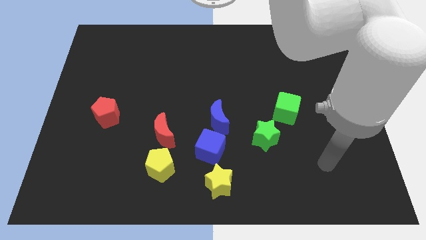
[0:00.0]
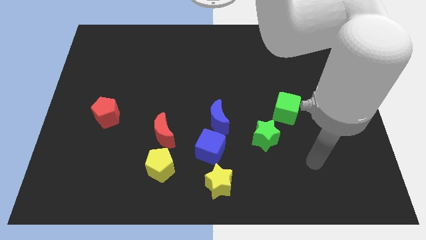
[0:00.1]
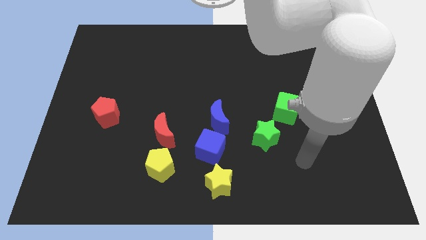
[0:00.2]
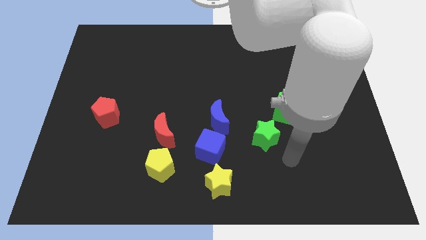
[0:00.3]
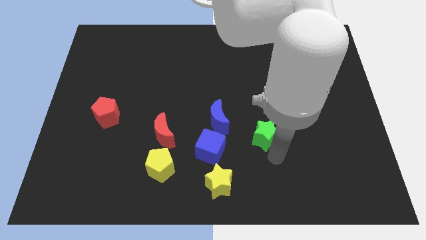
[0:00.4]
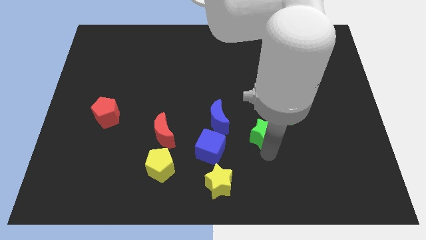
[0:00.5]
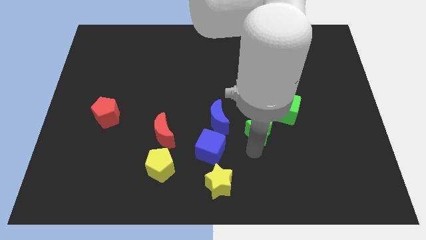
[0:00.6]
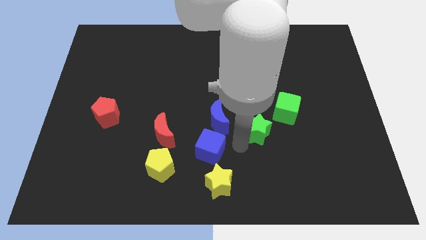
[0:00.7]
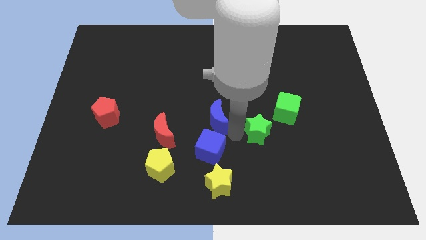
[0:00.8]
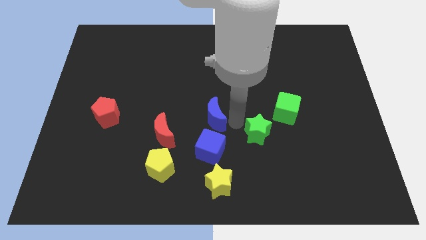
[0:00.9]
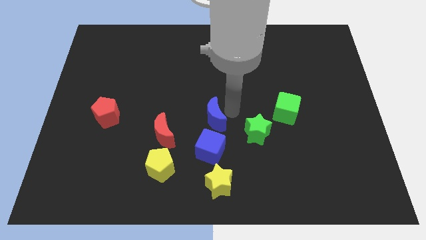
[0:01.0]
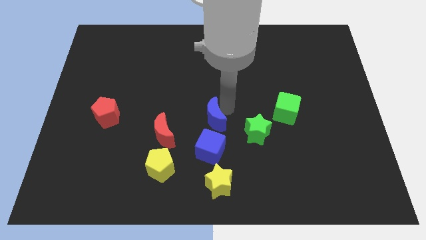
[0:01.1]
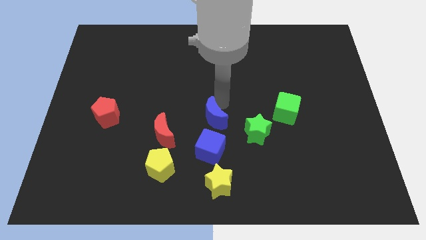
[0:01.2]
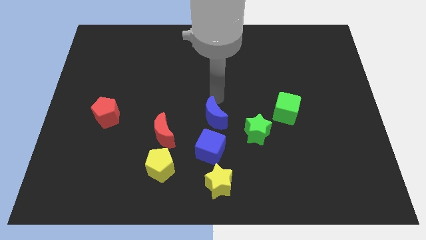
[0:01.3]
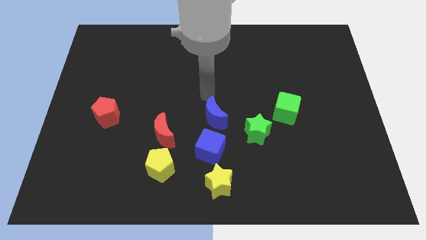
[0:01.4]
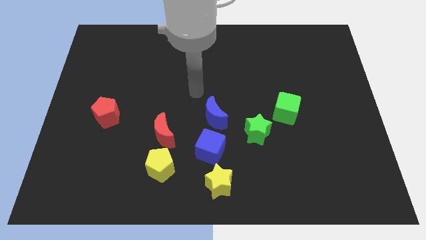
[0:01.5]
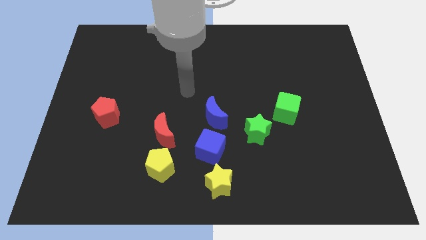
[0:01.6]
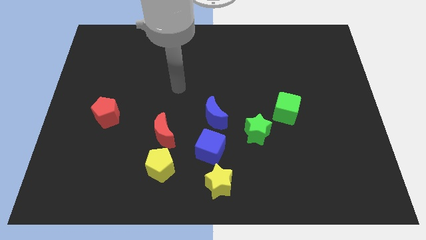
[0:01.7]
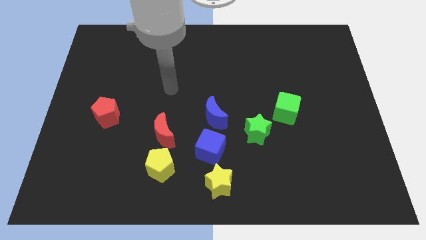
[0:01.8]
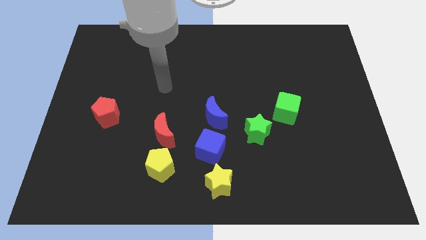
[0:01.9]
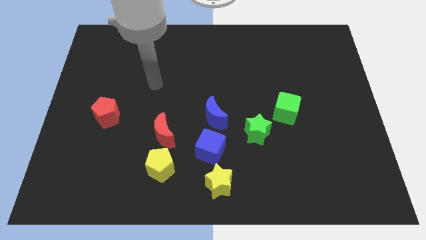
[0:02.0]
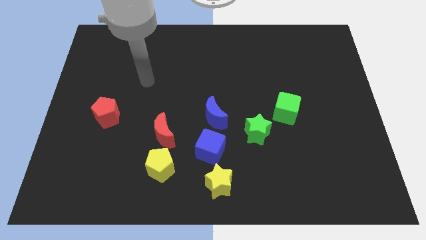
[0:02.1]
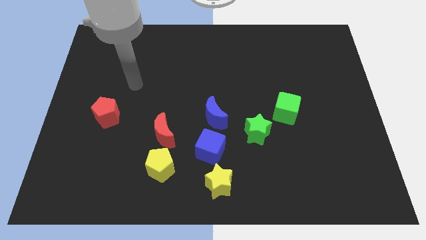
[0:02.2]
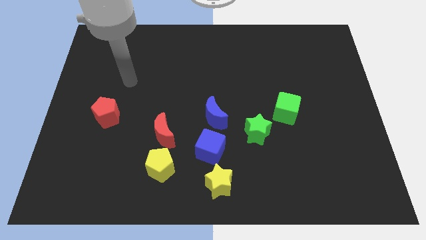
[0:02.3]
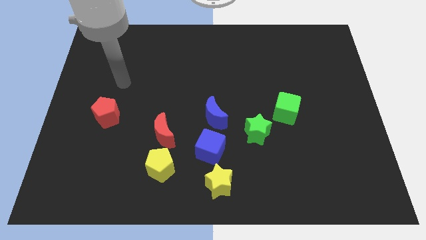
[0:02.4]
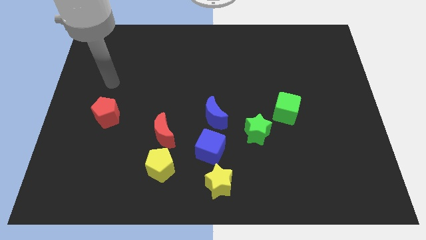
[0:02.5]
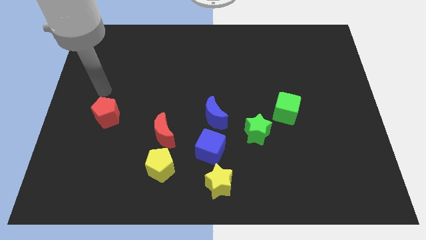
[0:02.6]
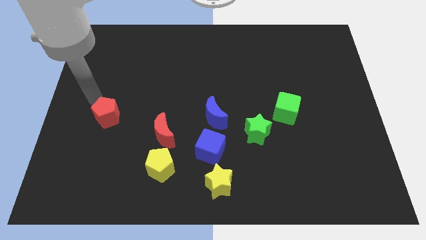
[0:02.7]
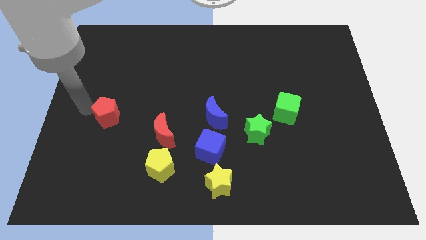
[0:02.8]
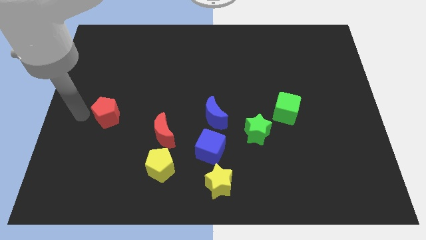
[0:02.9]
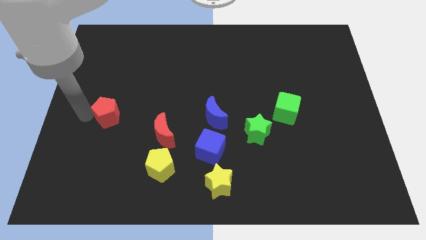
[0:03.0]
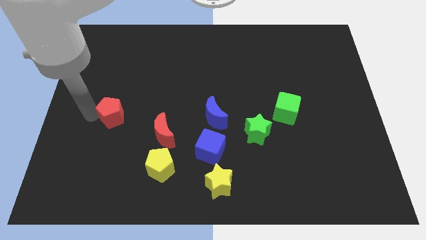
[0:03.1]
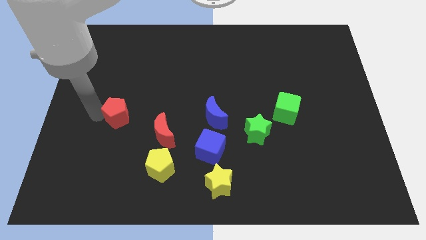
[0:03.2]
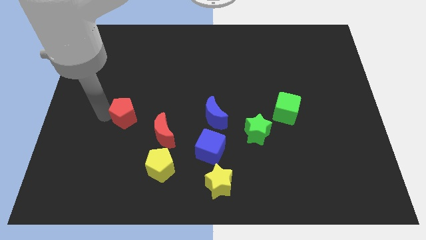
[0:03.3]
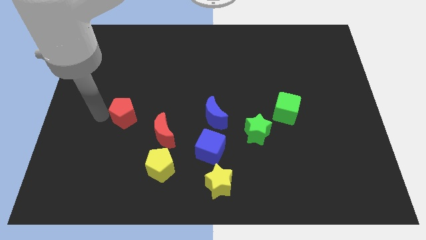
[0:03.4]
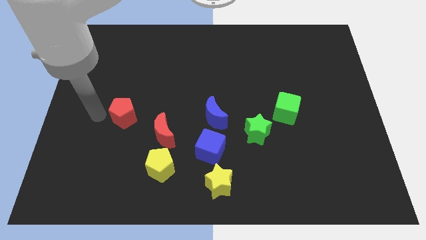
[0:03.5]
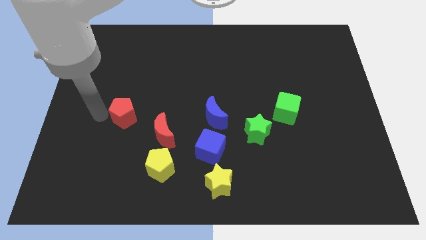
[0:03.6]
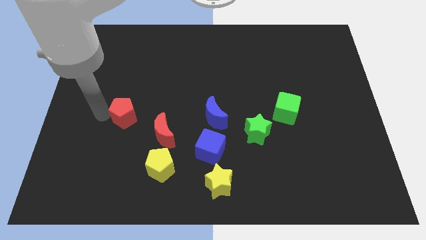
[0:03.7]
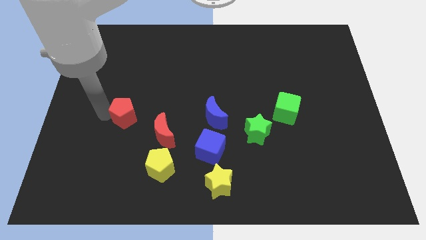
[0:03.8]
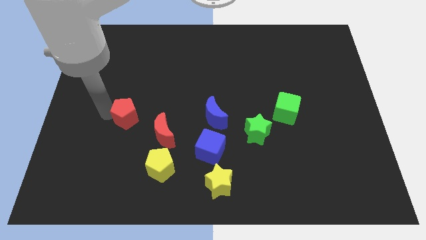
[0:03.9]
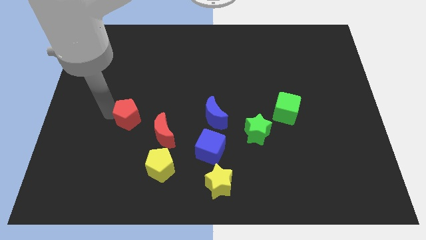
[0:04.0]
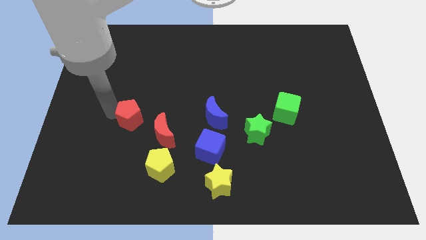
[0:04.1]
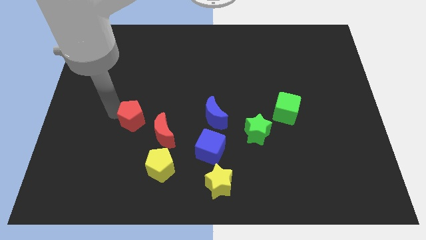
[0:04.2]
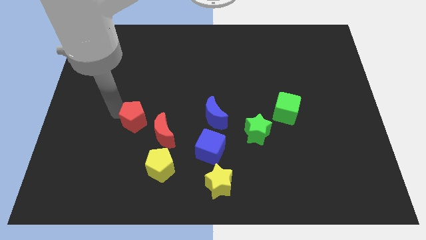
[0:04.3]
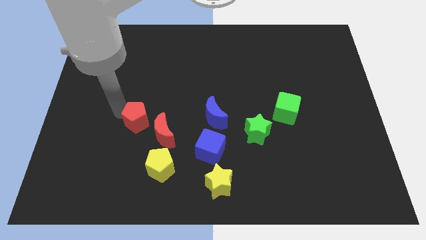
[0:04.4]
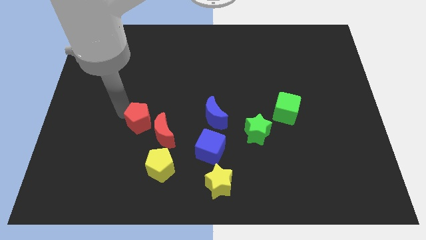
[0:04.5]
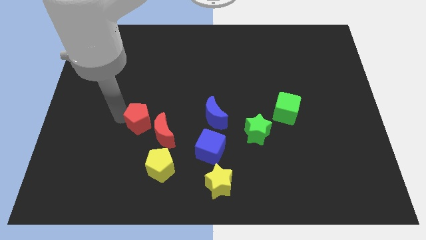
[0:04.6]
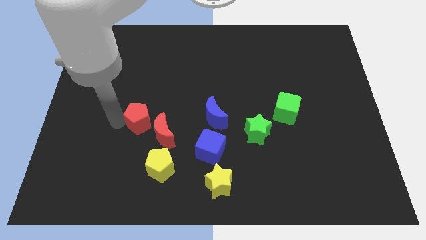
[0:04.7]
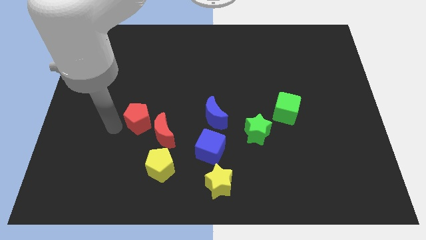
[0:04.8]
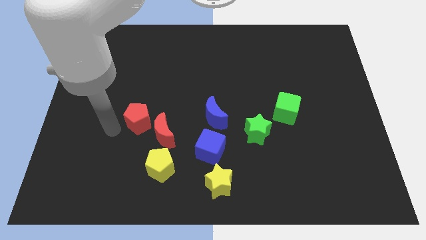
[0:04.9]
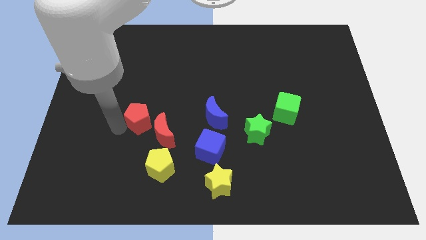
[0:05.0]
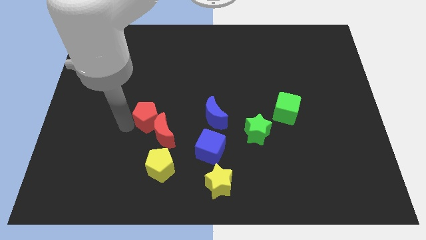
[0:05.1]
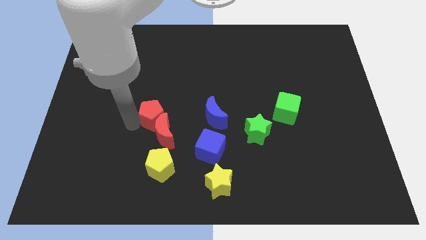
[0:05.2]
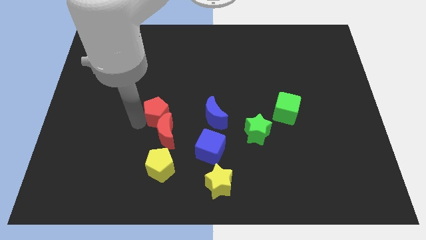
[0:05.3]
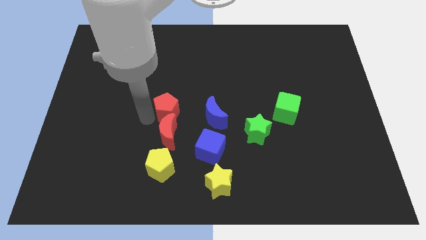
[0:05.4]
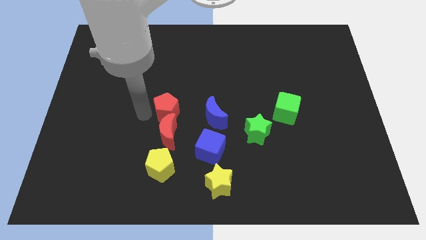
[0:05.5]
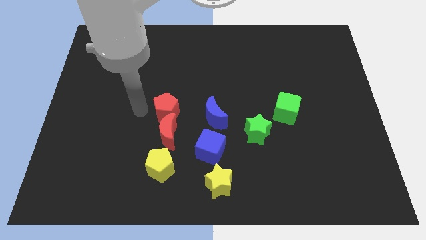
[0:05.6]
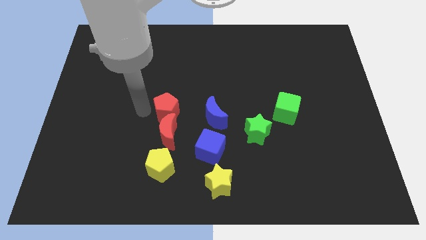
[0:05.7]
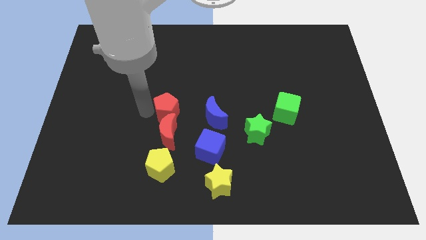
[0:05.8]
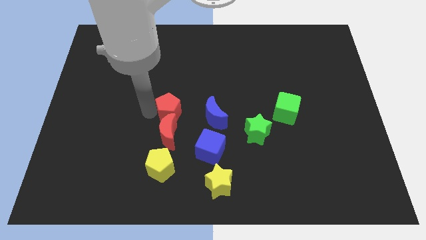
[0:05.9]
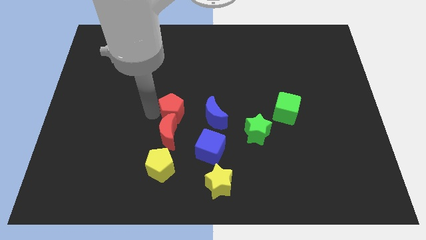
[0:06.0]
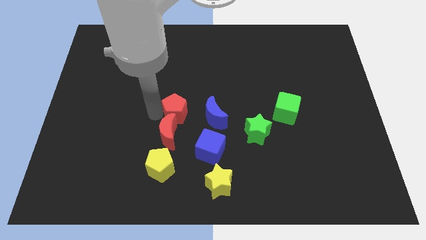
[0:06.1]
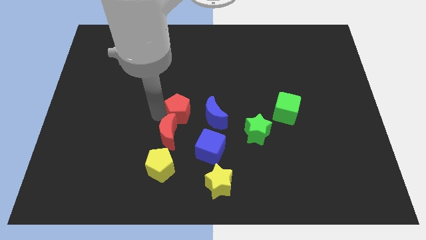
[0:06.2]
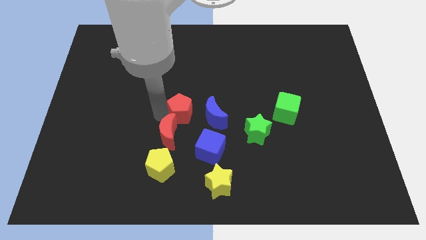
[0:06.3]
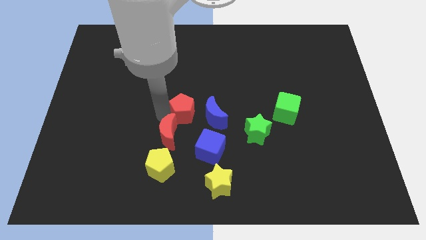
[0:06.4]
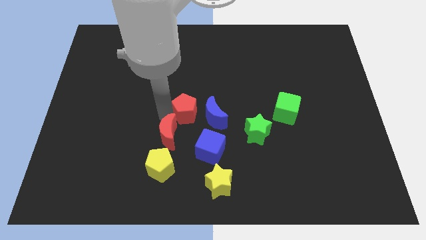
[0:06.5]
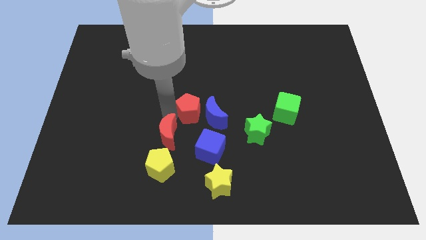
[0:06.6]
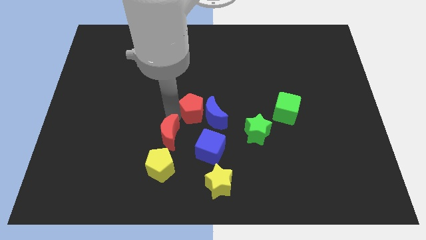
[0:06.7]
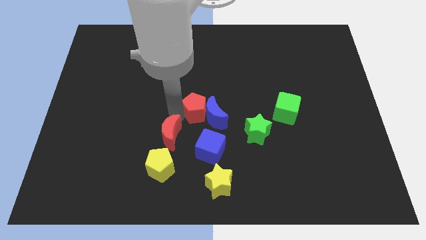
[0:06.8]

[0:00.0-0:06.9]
push the red pentagon right

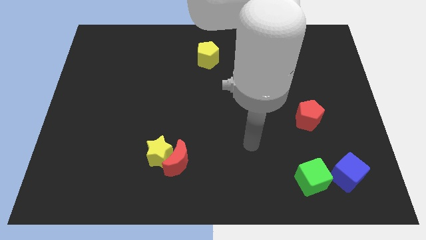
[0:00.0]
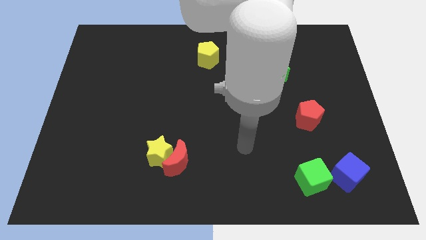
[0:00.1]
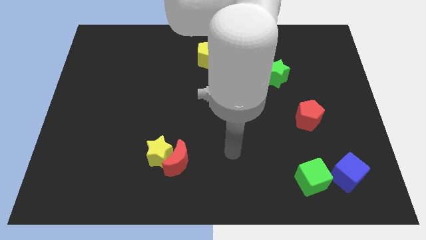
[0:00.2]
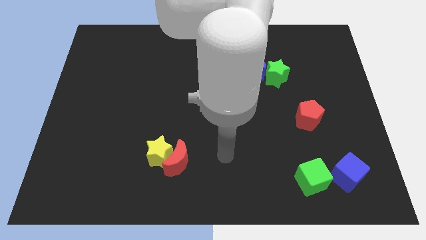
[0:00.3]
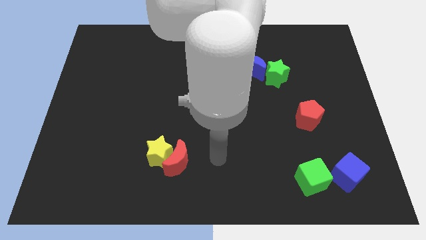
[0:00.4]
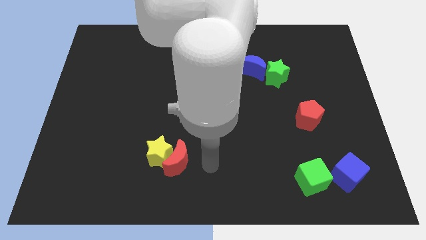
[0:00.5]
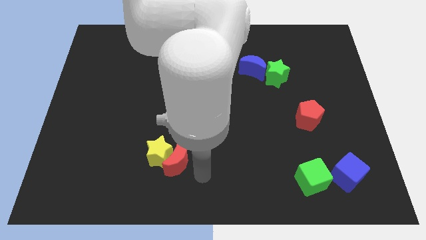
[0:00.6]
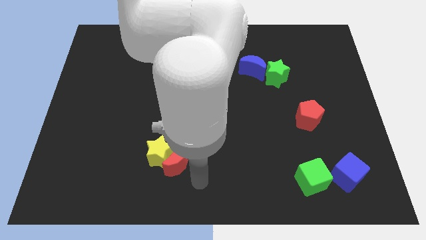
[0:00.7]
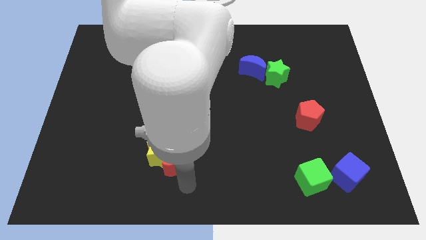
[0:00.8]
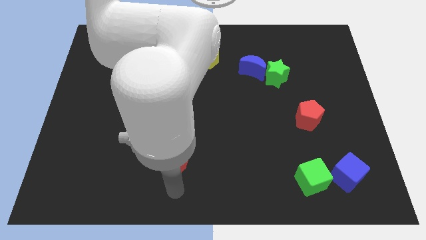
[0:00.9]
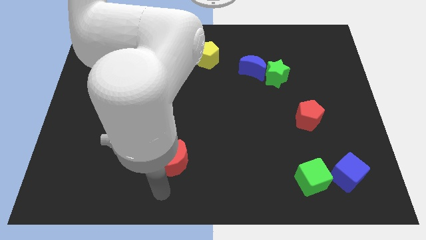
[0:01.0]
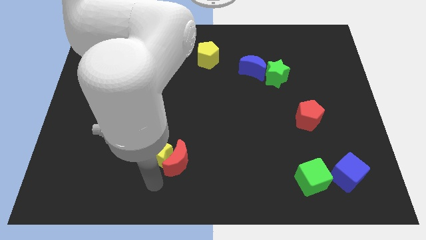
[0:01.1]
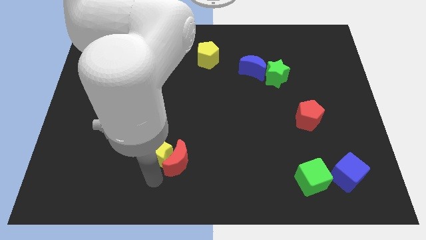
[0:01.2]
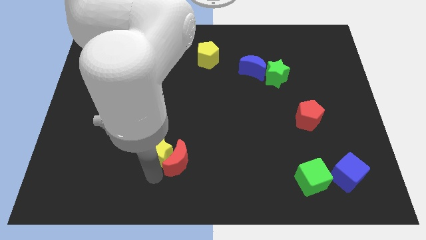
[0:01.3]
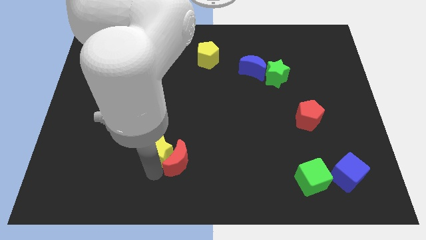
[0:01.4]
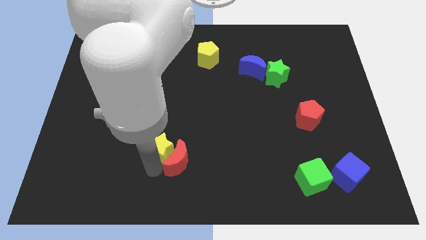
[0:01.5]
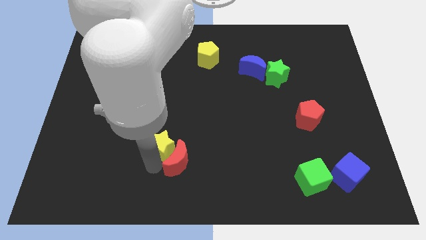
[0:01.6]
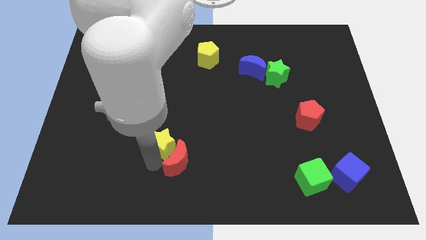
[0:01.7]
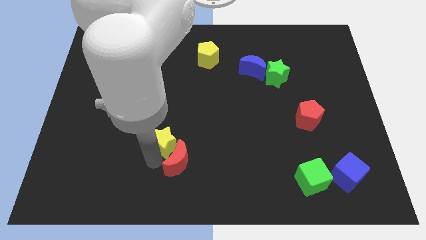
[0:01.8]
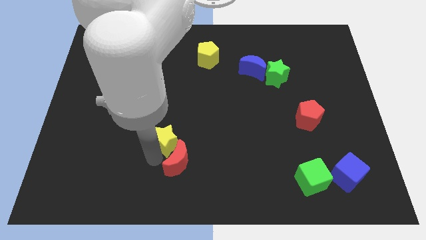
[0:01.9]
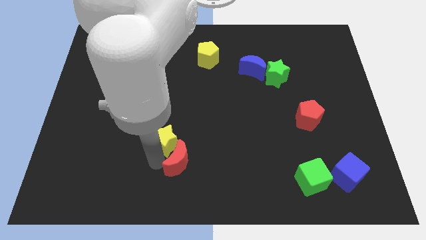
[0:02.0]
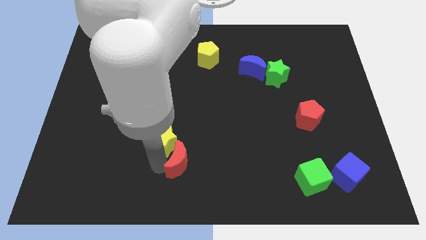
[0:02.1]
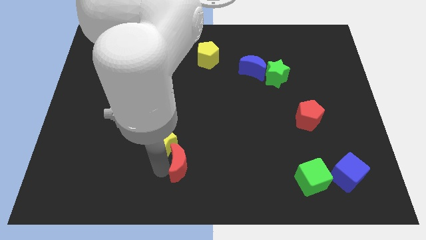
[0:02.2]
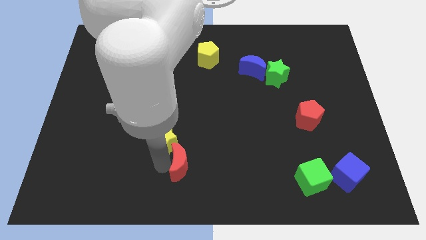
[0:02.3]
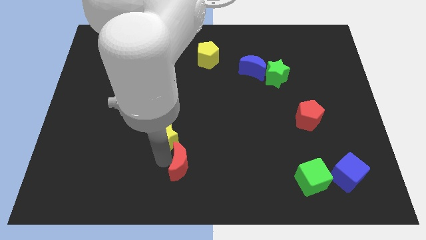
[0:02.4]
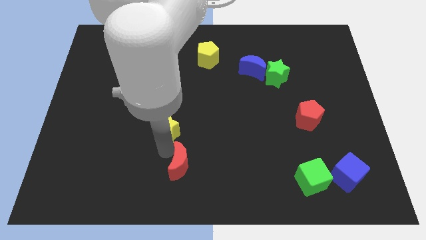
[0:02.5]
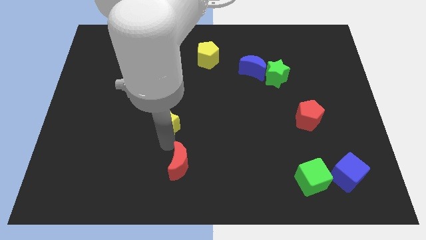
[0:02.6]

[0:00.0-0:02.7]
slightly push the yellow star upwards
